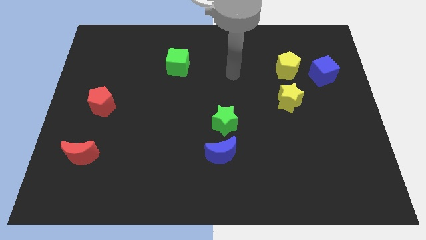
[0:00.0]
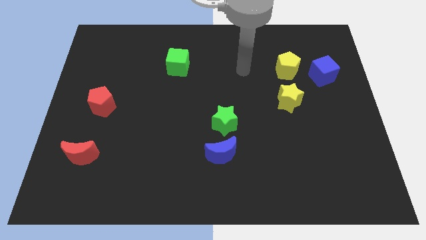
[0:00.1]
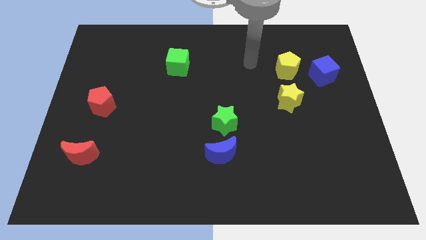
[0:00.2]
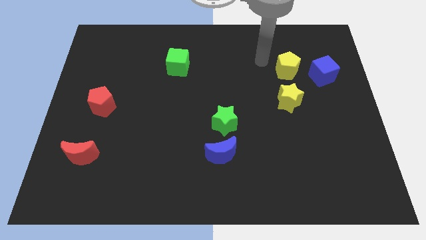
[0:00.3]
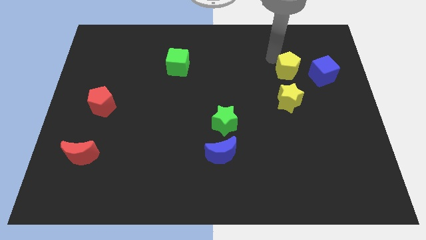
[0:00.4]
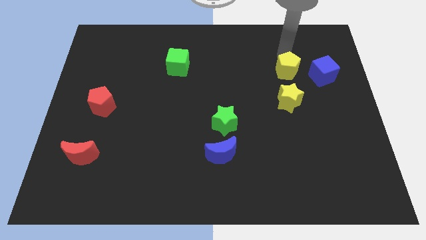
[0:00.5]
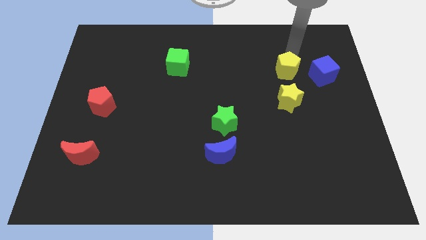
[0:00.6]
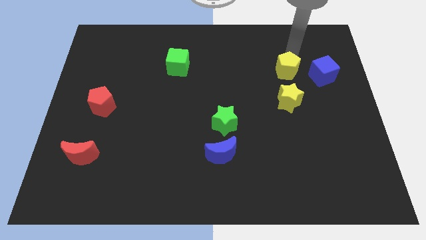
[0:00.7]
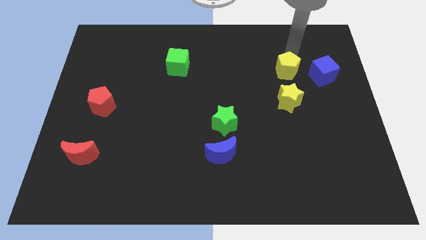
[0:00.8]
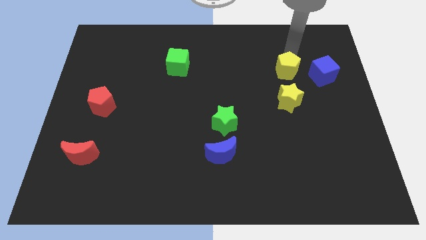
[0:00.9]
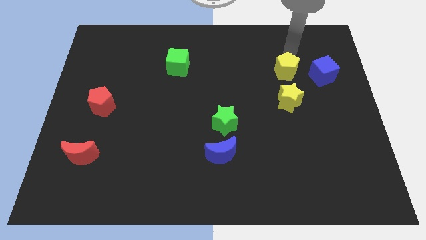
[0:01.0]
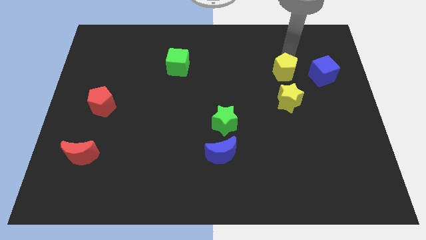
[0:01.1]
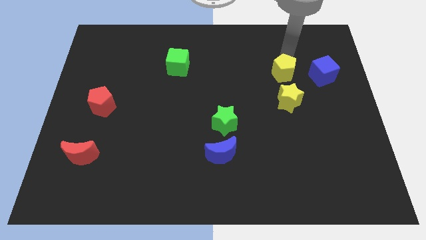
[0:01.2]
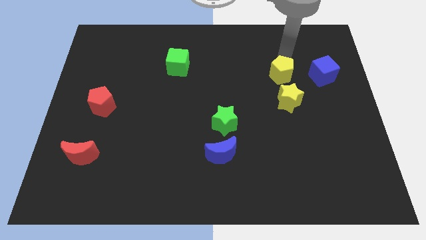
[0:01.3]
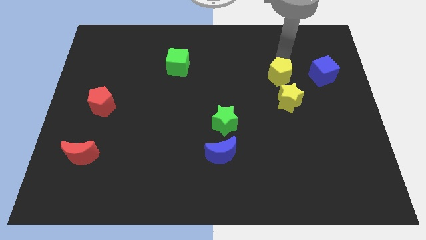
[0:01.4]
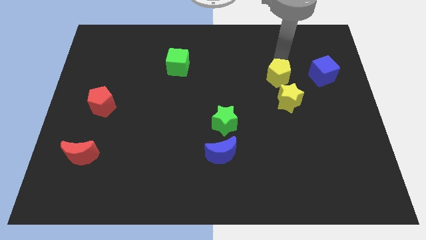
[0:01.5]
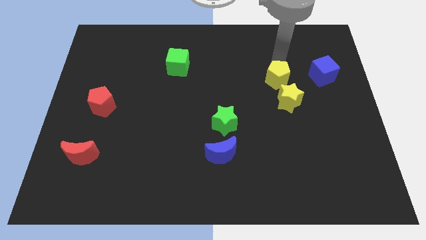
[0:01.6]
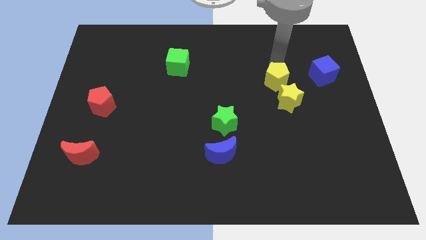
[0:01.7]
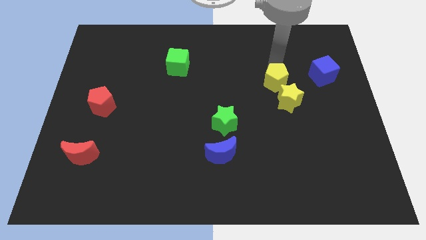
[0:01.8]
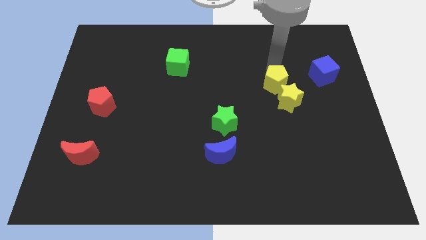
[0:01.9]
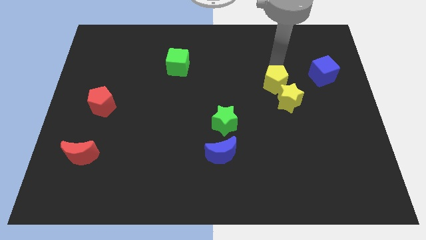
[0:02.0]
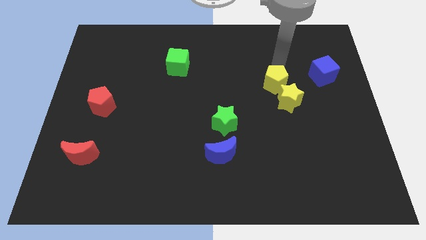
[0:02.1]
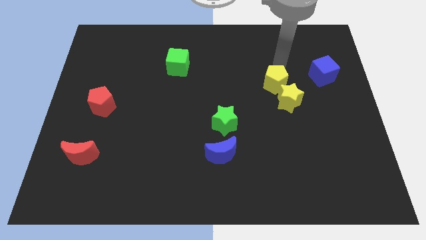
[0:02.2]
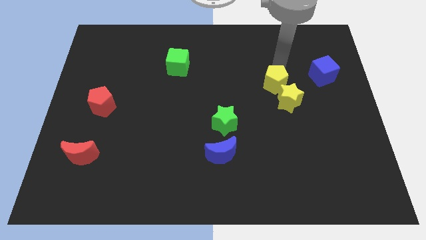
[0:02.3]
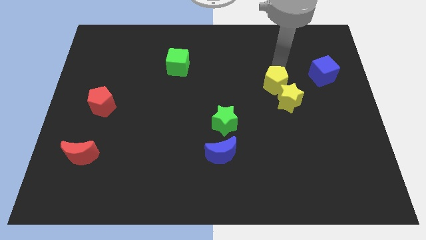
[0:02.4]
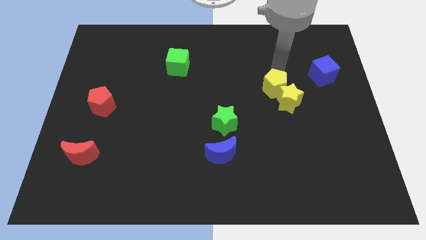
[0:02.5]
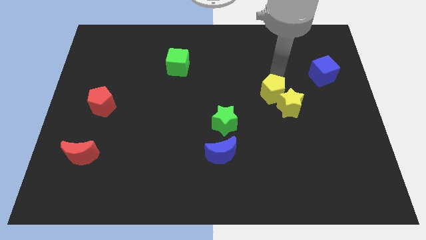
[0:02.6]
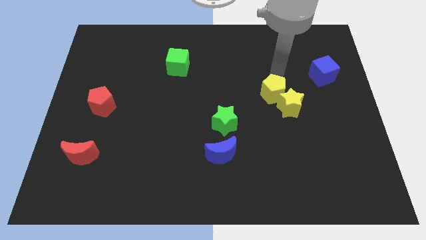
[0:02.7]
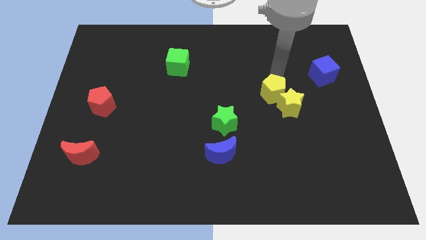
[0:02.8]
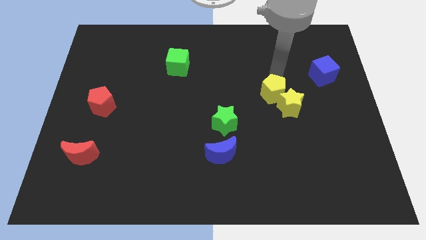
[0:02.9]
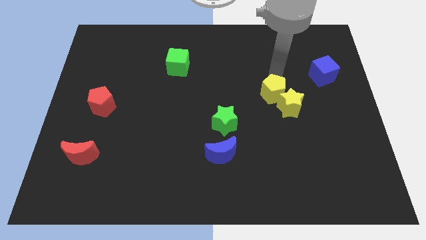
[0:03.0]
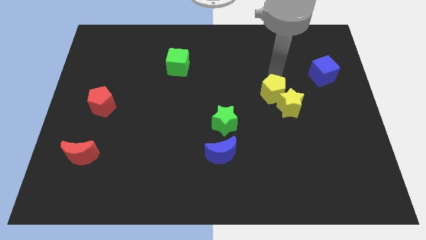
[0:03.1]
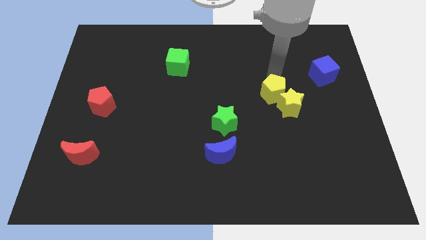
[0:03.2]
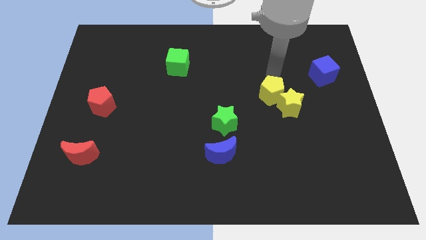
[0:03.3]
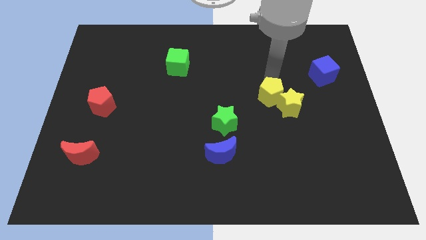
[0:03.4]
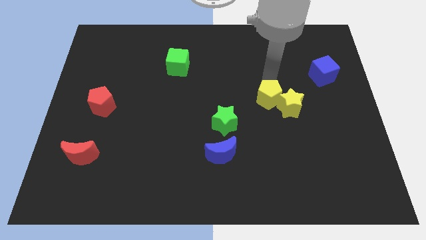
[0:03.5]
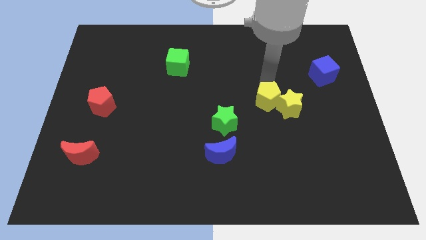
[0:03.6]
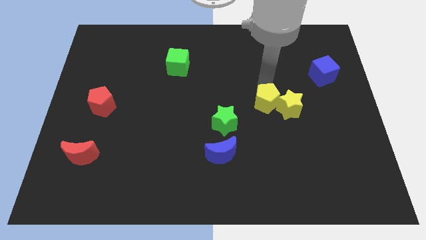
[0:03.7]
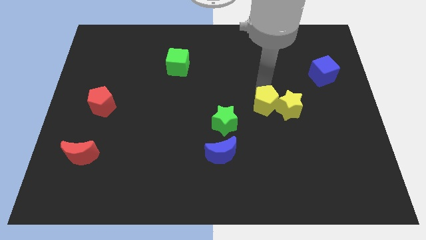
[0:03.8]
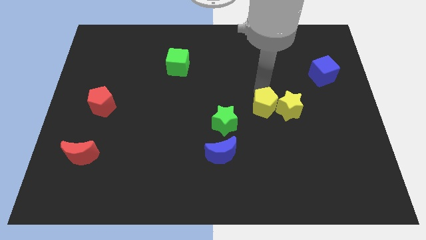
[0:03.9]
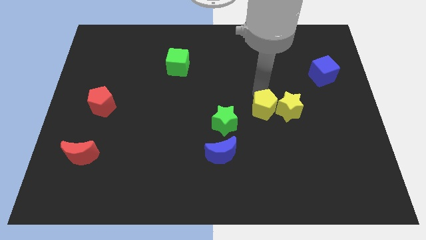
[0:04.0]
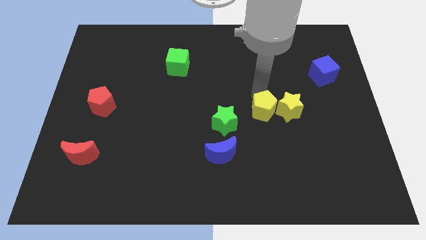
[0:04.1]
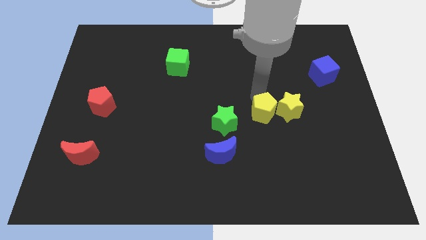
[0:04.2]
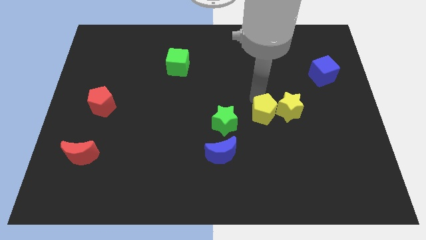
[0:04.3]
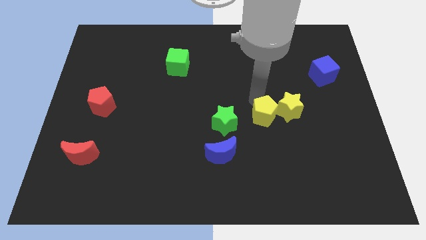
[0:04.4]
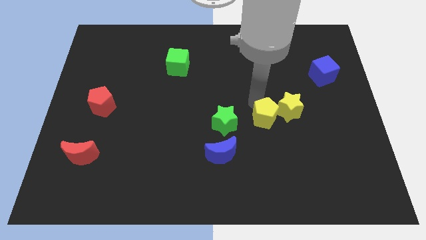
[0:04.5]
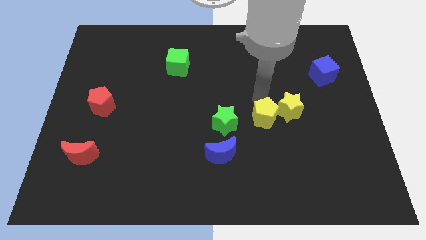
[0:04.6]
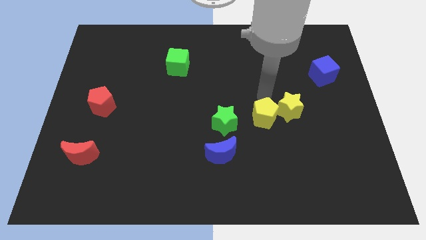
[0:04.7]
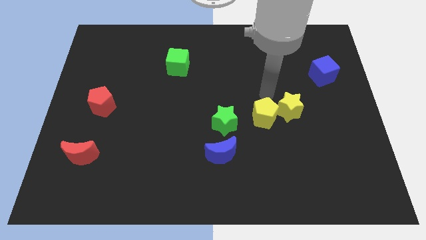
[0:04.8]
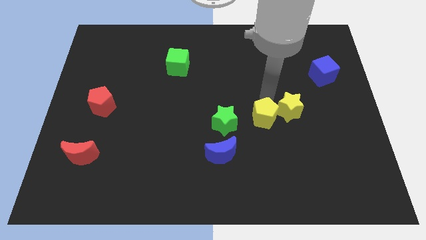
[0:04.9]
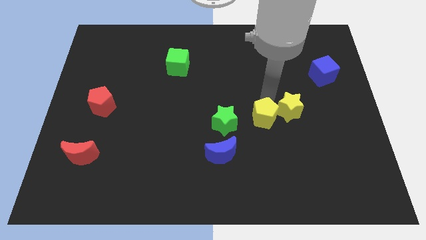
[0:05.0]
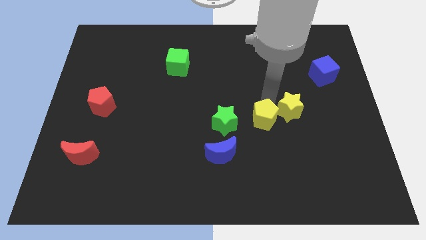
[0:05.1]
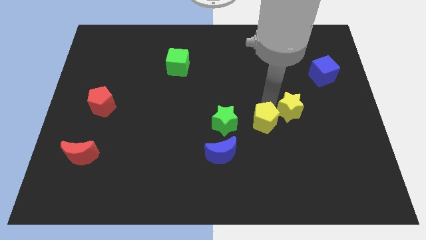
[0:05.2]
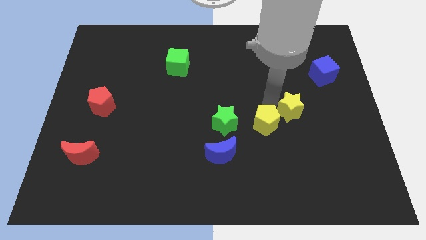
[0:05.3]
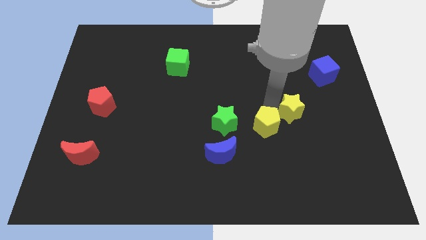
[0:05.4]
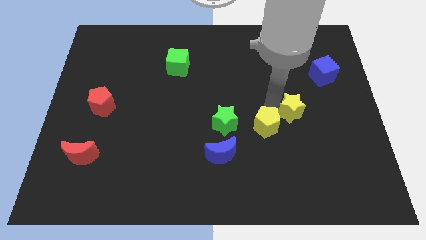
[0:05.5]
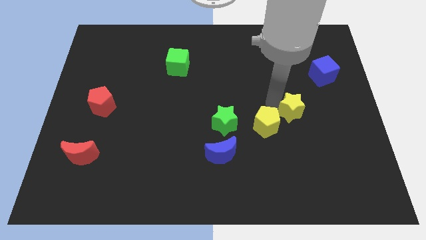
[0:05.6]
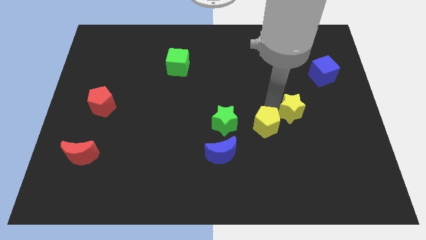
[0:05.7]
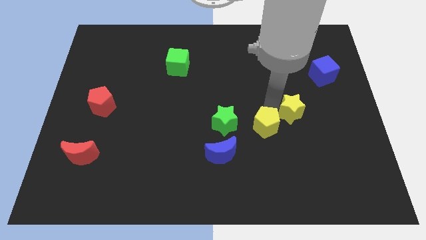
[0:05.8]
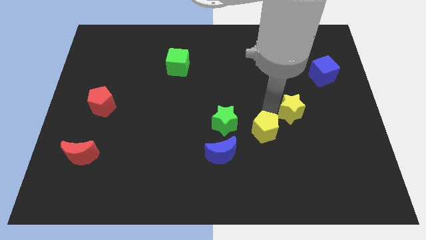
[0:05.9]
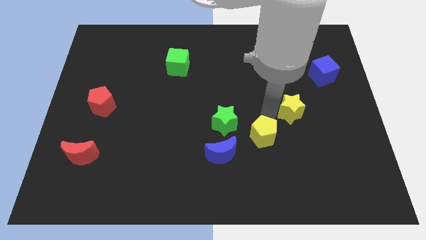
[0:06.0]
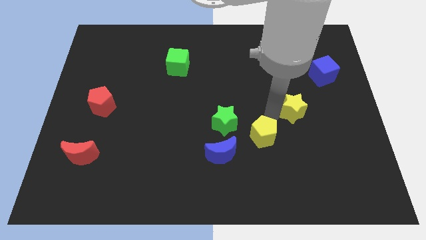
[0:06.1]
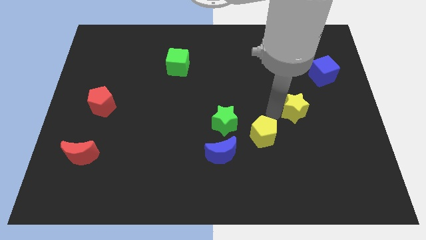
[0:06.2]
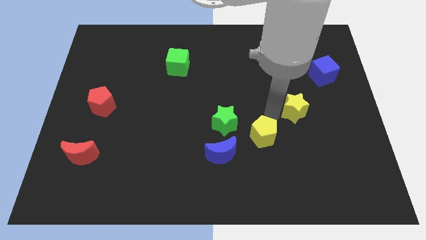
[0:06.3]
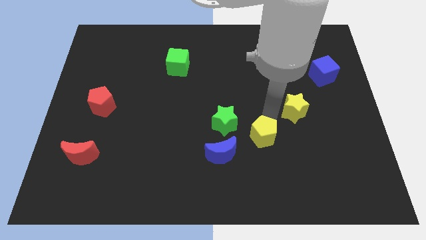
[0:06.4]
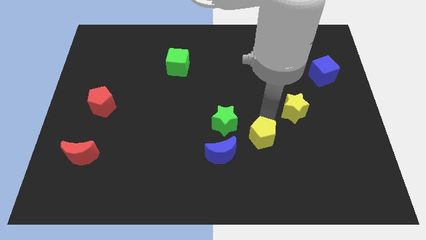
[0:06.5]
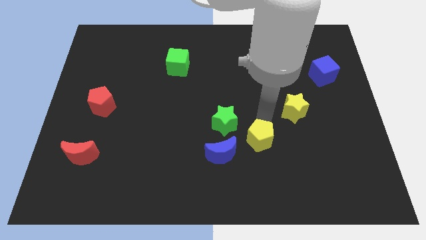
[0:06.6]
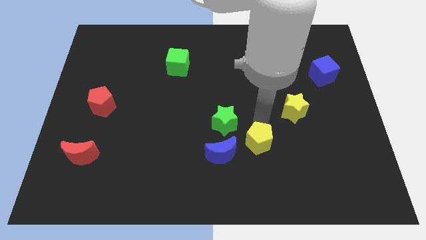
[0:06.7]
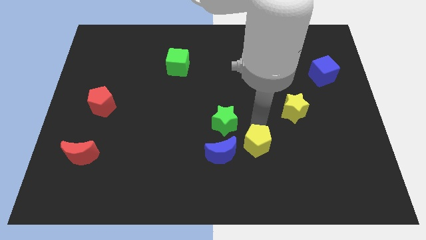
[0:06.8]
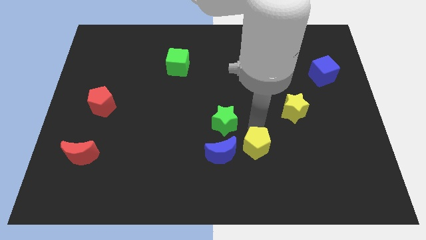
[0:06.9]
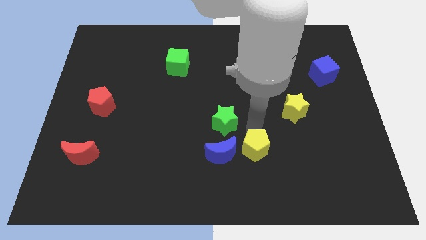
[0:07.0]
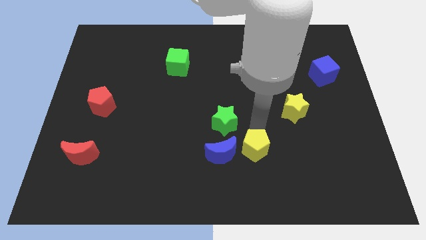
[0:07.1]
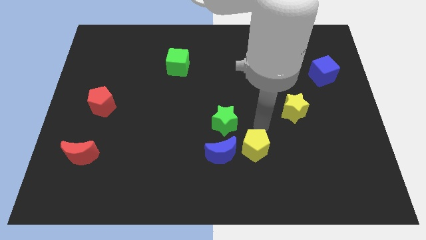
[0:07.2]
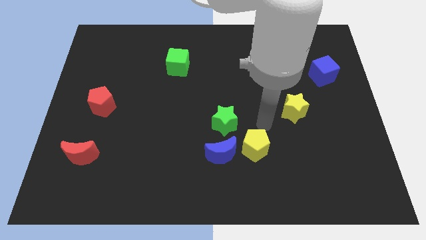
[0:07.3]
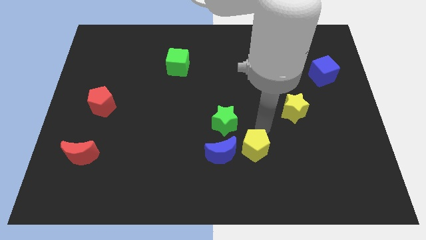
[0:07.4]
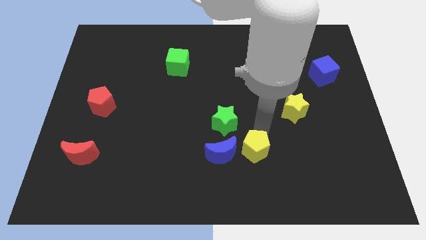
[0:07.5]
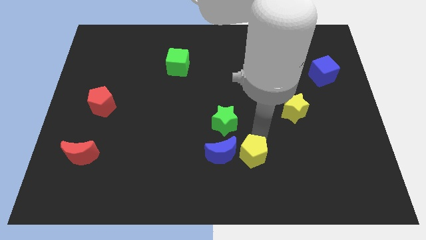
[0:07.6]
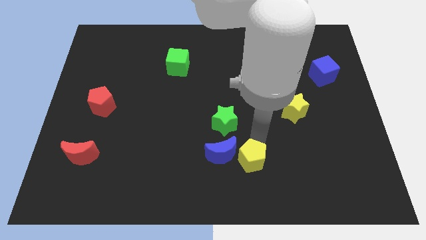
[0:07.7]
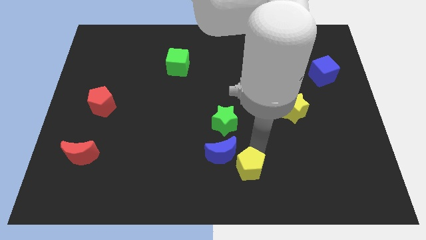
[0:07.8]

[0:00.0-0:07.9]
move the yellow pentagon to the bottom of the green star
